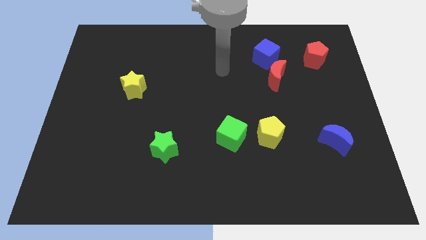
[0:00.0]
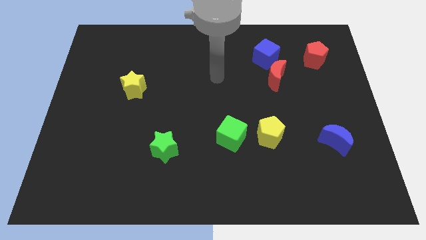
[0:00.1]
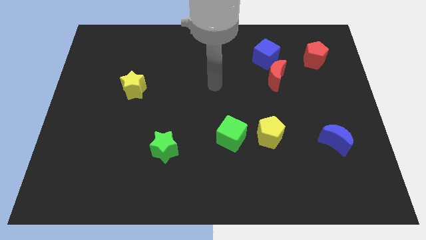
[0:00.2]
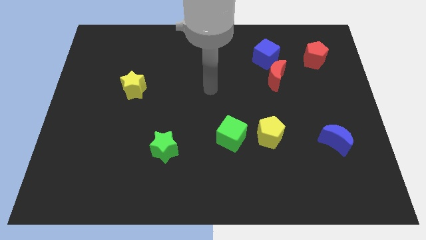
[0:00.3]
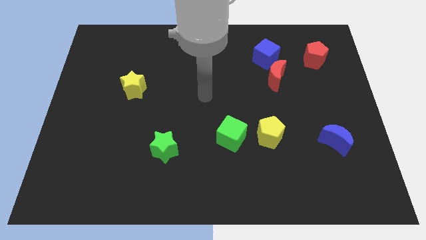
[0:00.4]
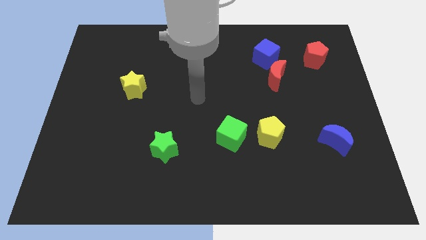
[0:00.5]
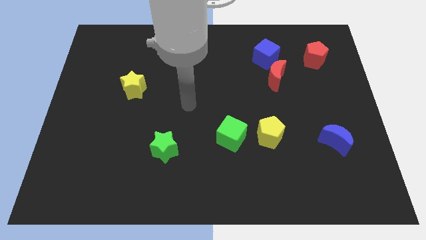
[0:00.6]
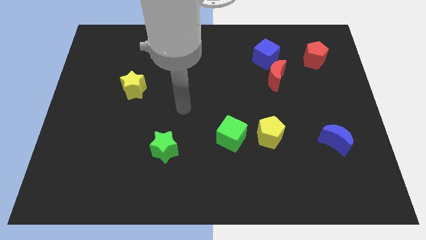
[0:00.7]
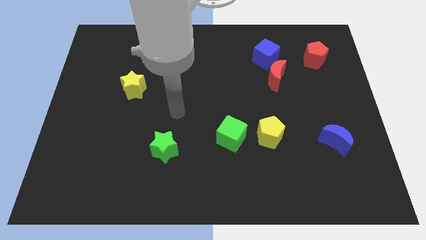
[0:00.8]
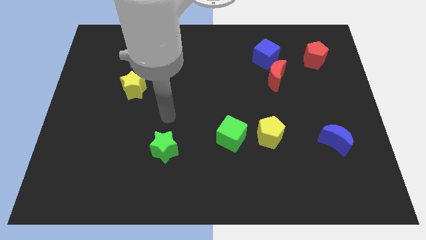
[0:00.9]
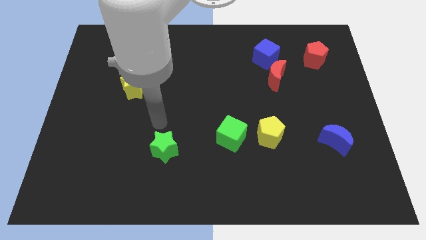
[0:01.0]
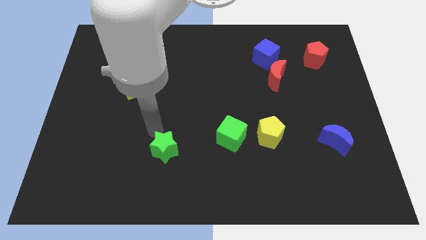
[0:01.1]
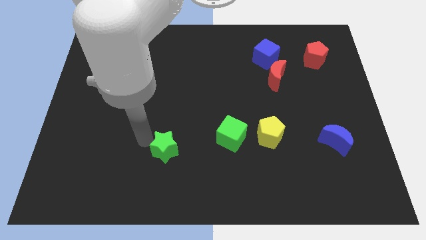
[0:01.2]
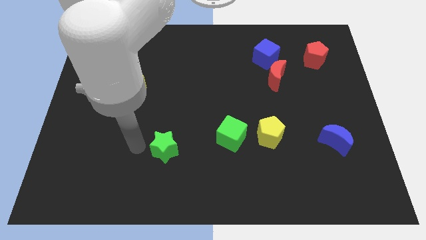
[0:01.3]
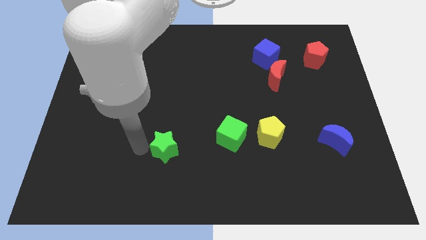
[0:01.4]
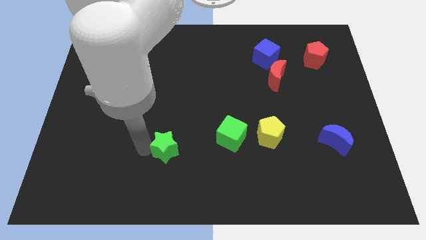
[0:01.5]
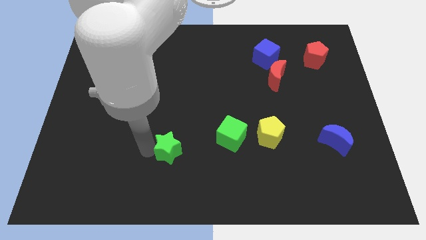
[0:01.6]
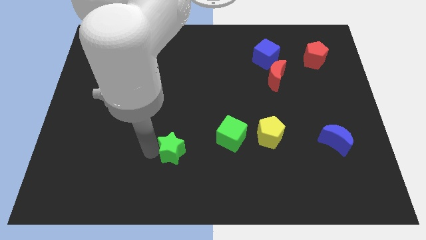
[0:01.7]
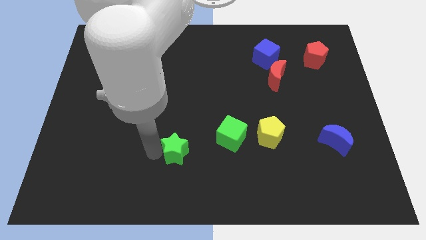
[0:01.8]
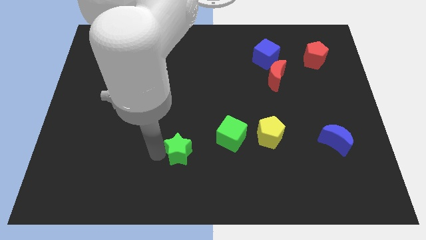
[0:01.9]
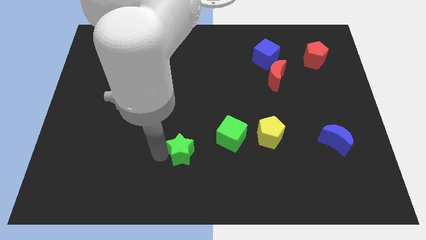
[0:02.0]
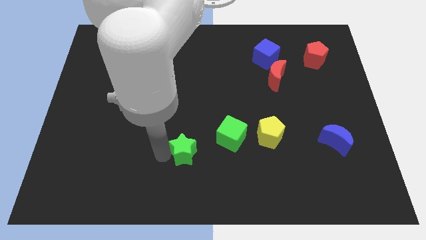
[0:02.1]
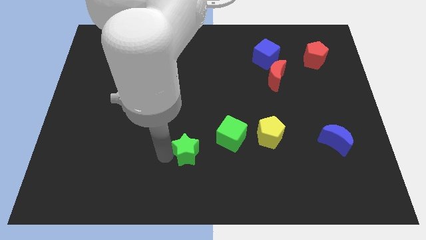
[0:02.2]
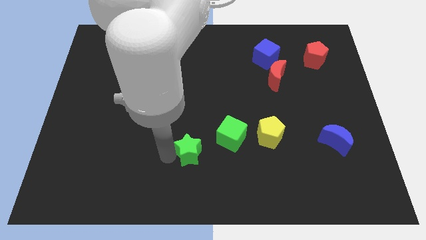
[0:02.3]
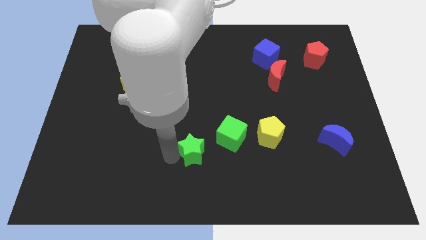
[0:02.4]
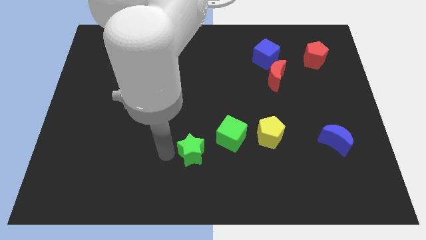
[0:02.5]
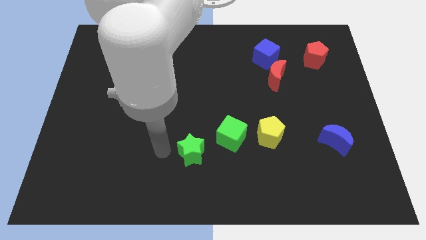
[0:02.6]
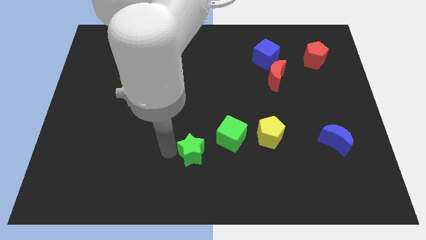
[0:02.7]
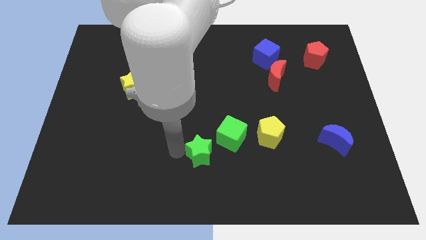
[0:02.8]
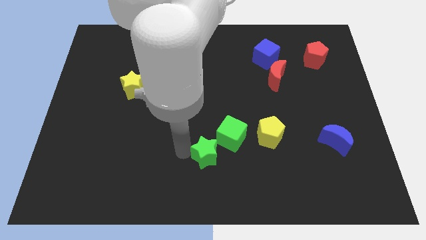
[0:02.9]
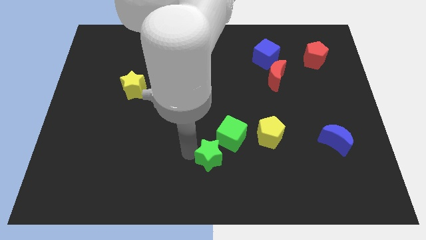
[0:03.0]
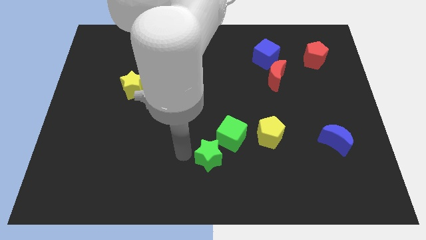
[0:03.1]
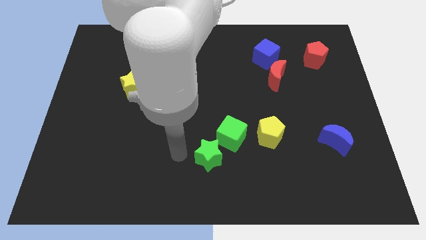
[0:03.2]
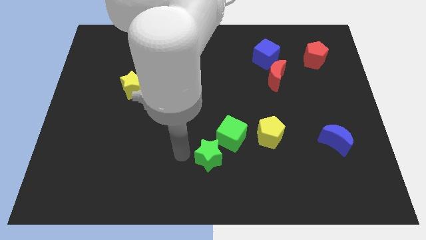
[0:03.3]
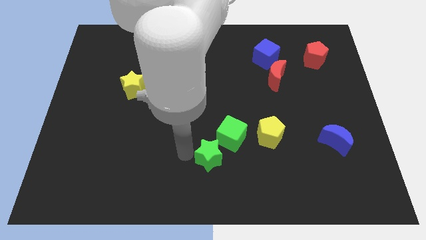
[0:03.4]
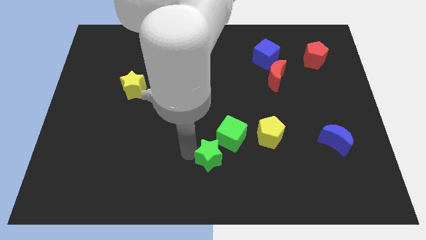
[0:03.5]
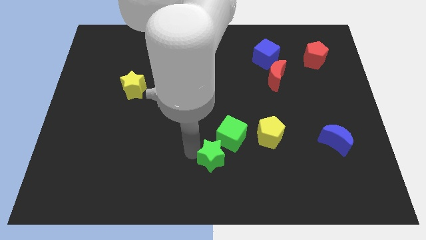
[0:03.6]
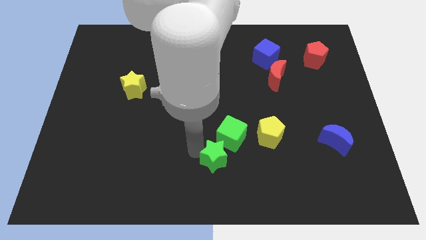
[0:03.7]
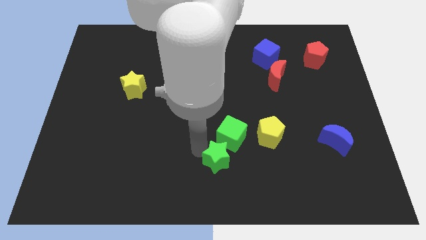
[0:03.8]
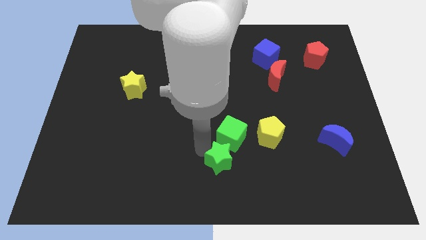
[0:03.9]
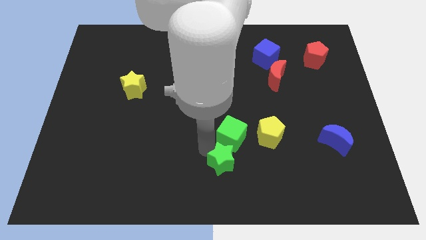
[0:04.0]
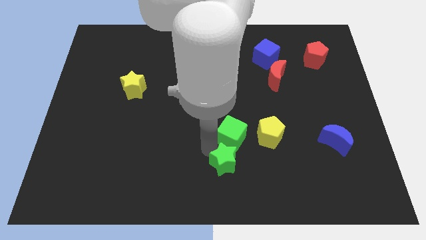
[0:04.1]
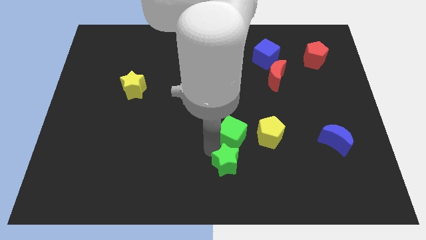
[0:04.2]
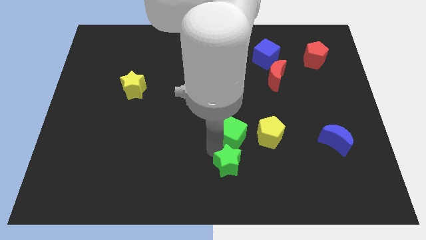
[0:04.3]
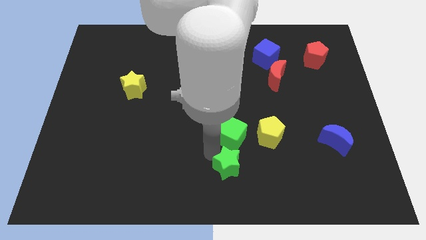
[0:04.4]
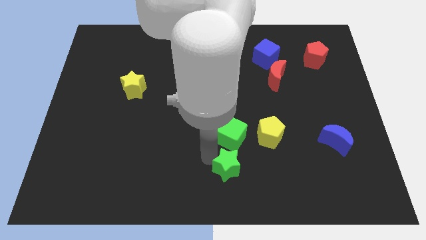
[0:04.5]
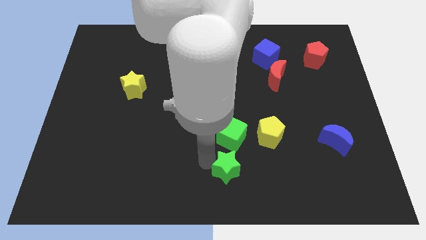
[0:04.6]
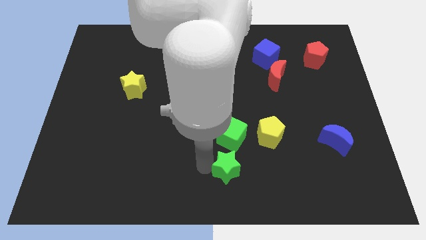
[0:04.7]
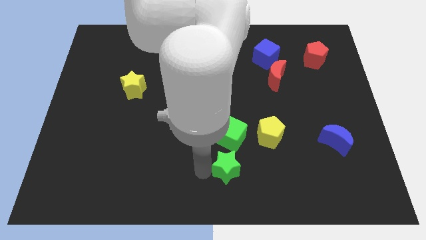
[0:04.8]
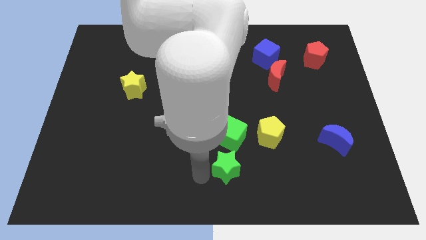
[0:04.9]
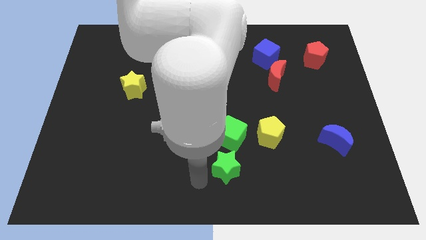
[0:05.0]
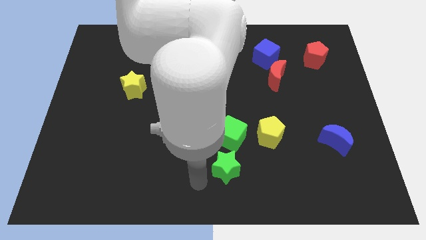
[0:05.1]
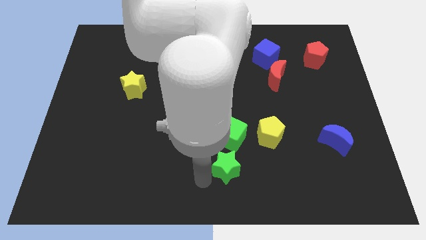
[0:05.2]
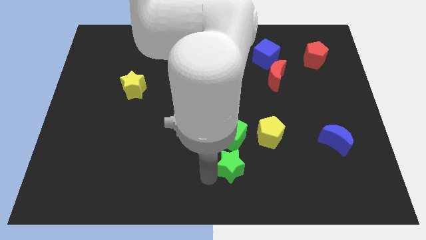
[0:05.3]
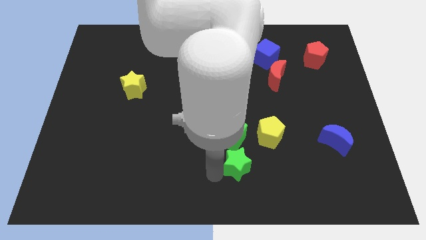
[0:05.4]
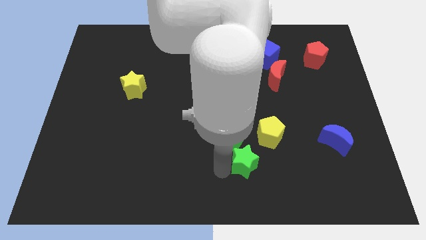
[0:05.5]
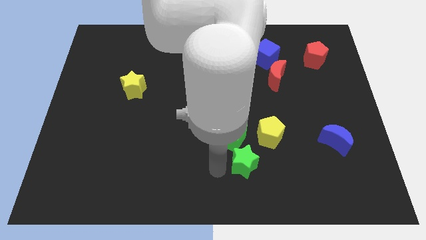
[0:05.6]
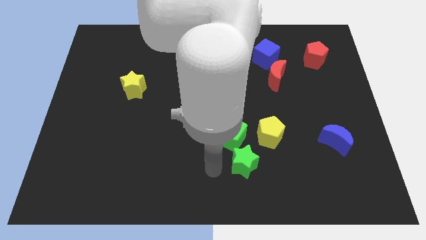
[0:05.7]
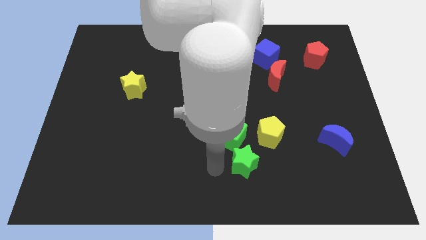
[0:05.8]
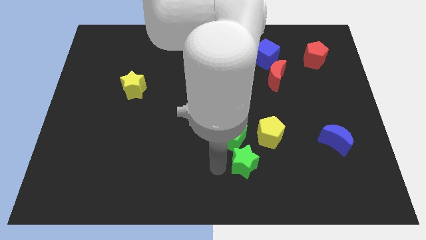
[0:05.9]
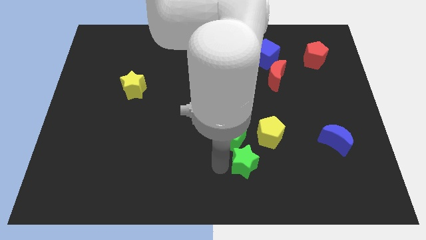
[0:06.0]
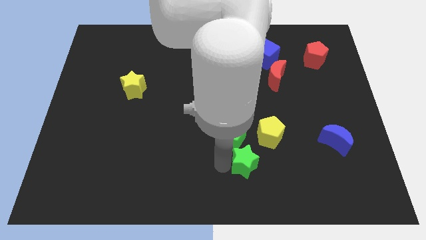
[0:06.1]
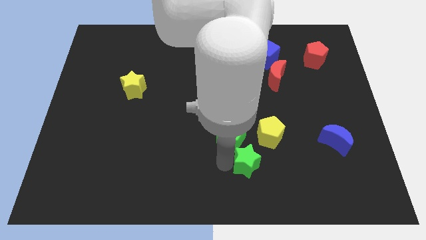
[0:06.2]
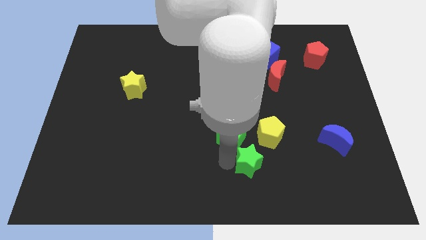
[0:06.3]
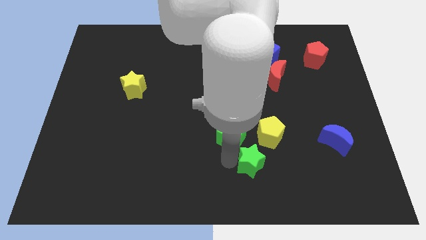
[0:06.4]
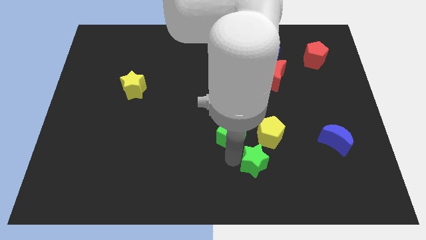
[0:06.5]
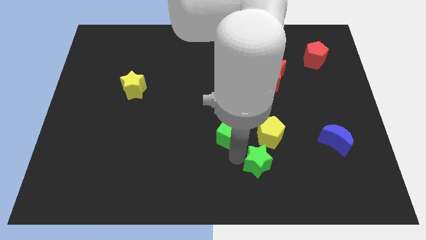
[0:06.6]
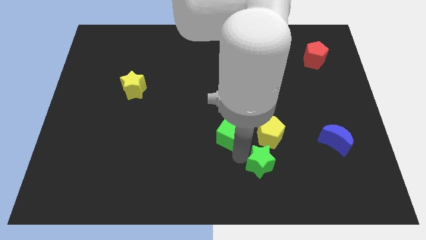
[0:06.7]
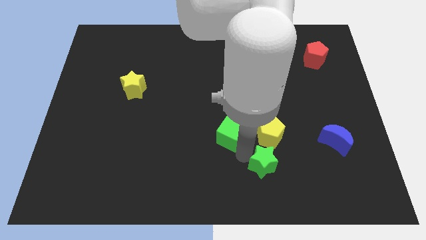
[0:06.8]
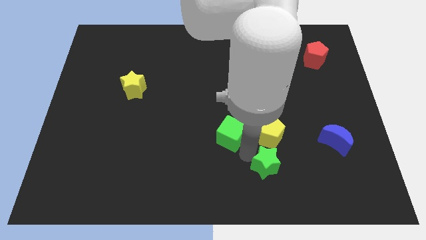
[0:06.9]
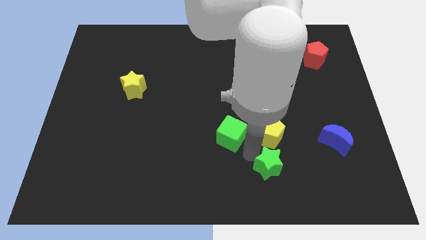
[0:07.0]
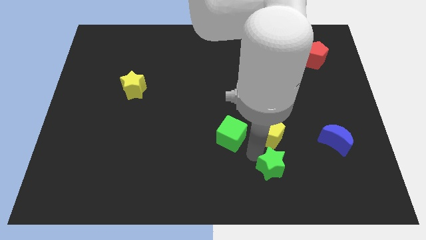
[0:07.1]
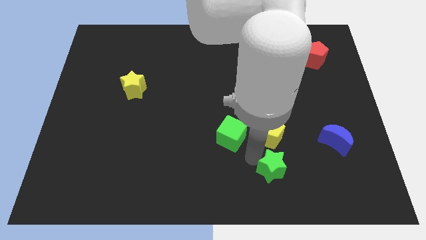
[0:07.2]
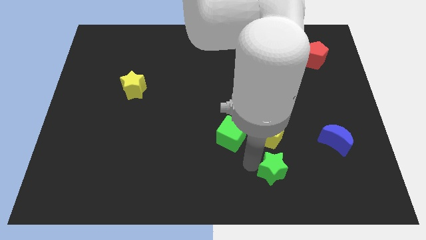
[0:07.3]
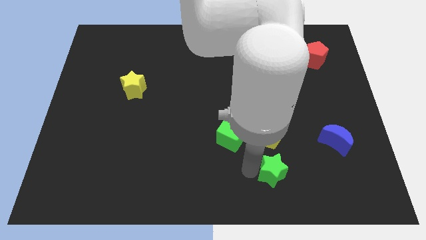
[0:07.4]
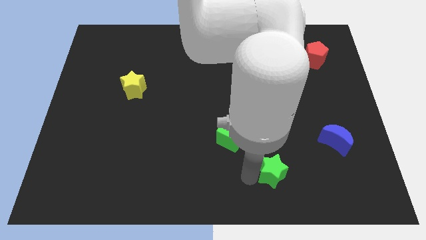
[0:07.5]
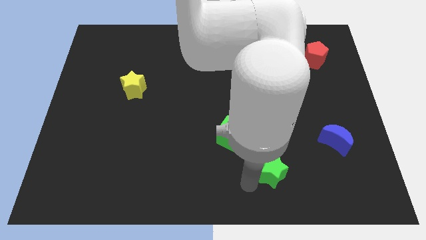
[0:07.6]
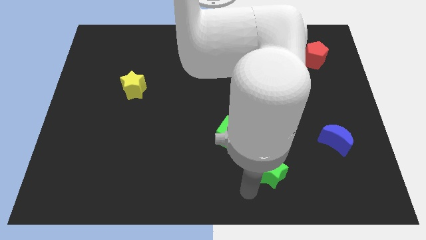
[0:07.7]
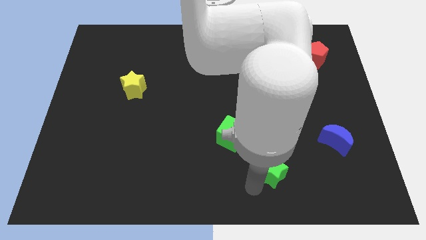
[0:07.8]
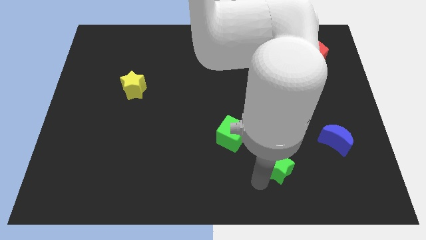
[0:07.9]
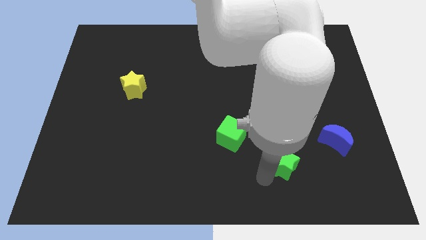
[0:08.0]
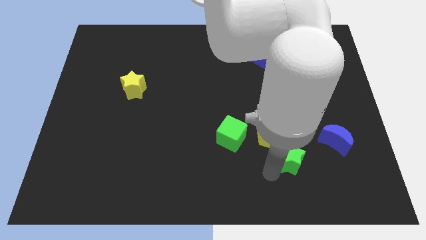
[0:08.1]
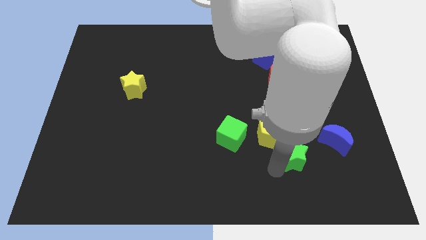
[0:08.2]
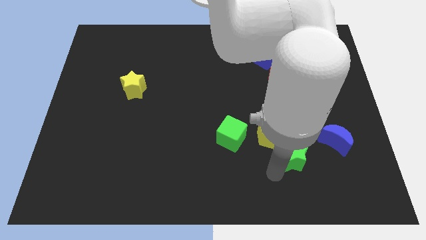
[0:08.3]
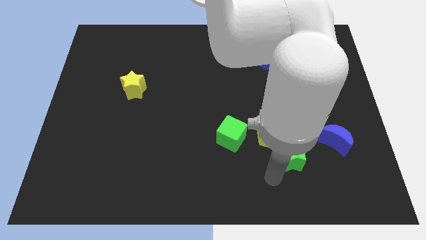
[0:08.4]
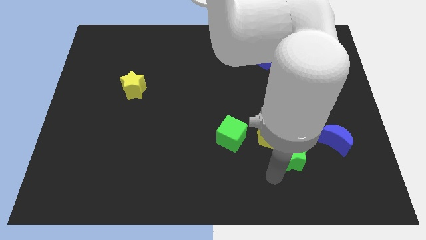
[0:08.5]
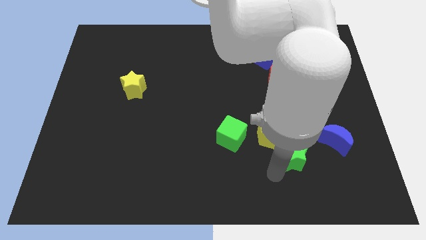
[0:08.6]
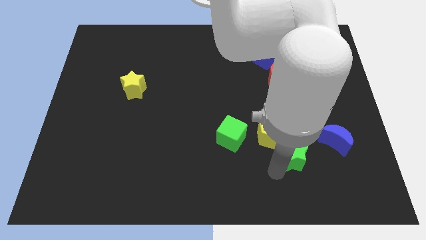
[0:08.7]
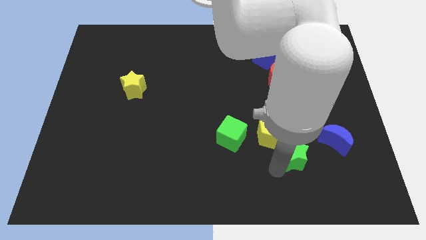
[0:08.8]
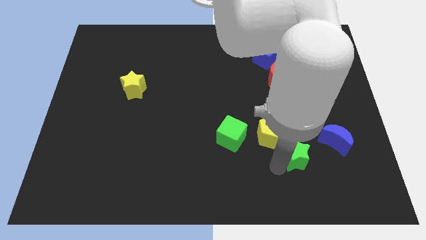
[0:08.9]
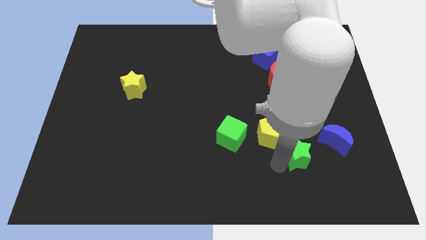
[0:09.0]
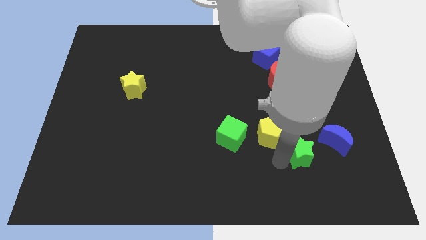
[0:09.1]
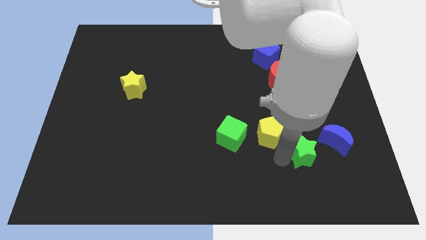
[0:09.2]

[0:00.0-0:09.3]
push the green star to the right side of the yellow pentagon
